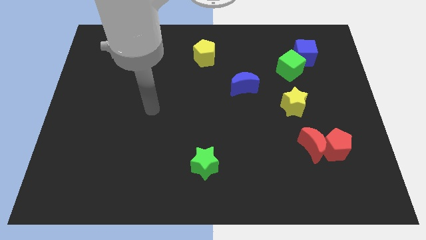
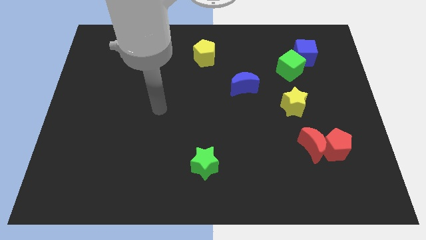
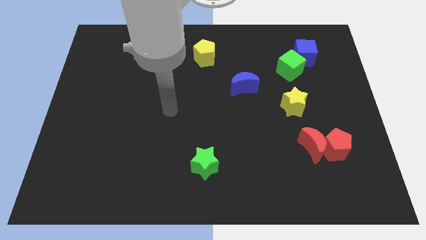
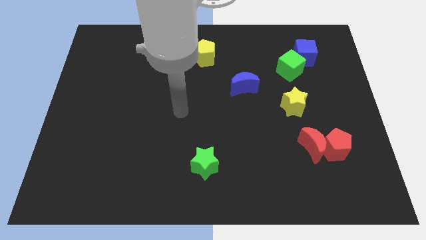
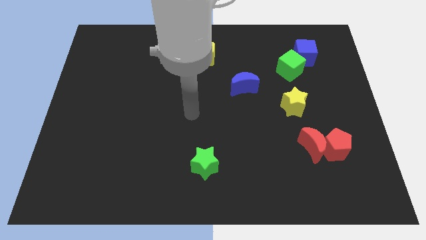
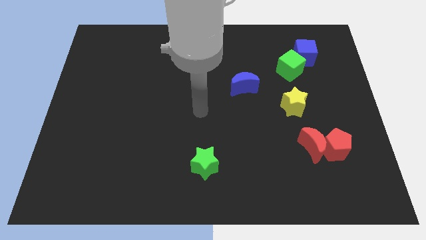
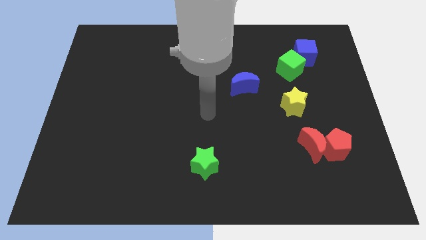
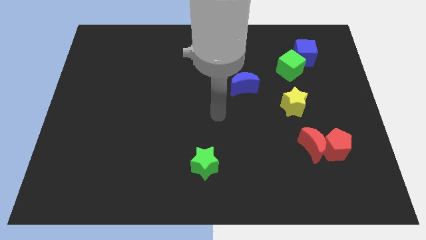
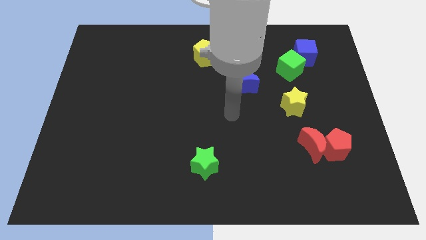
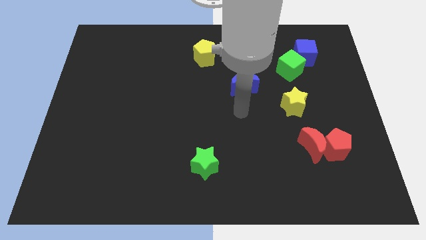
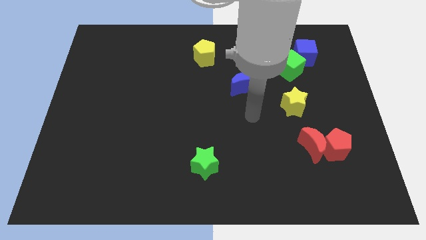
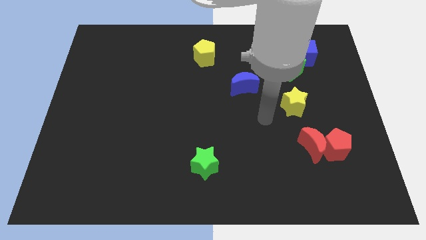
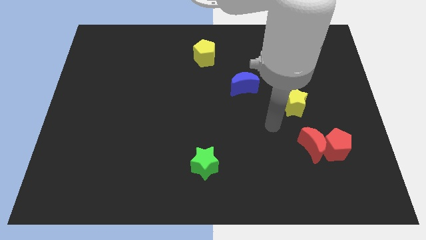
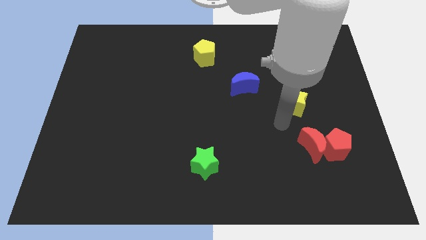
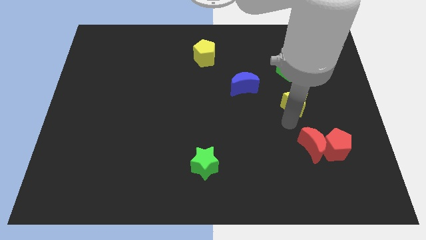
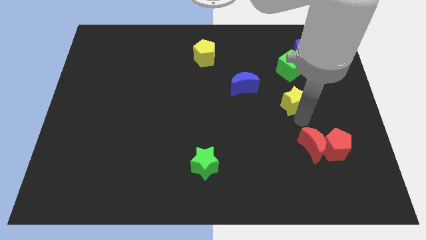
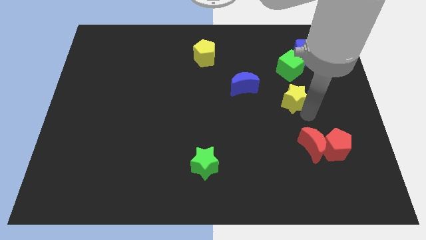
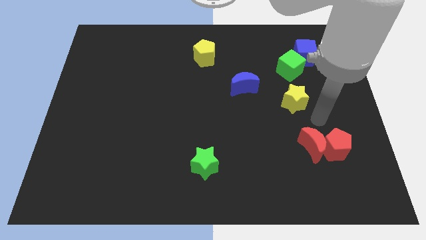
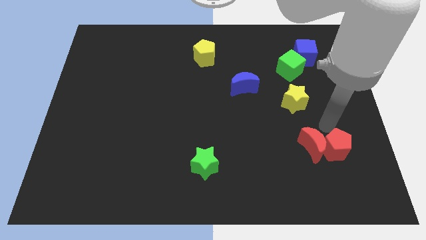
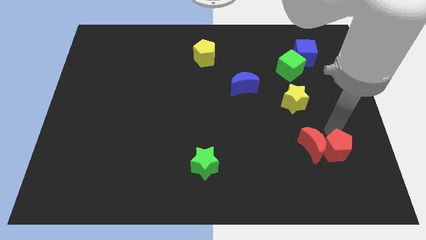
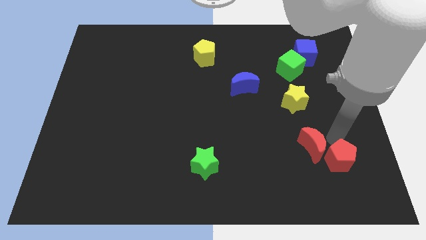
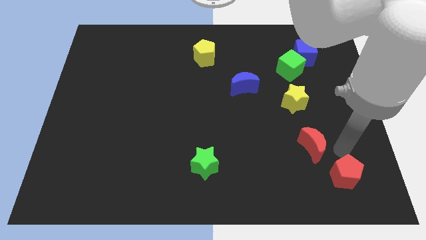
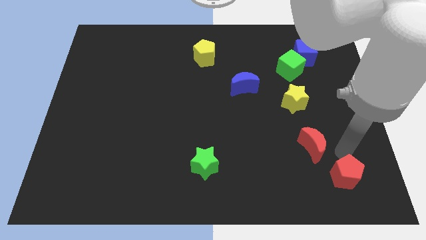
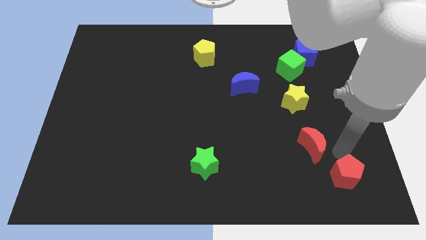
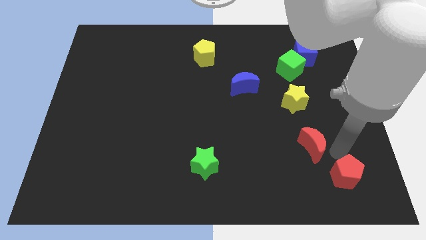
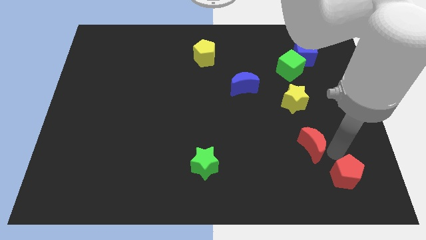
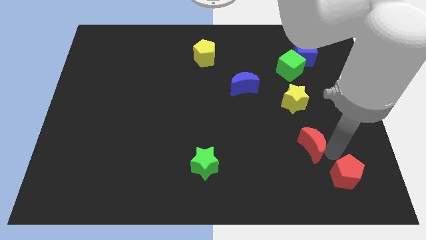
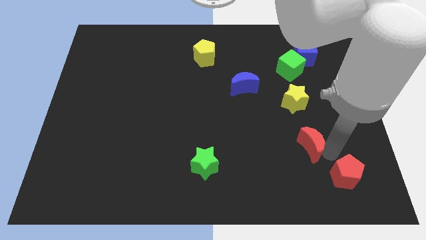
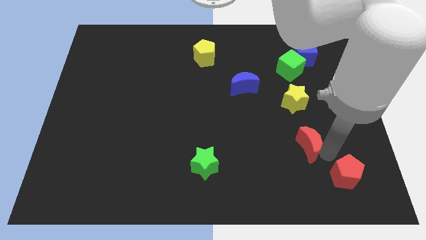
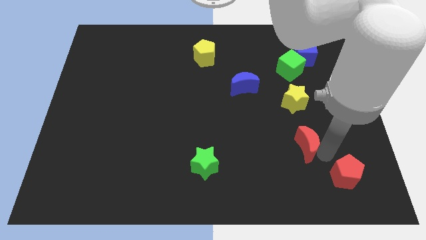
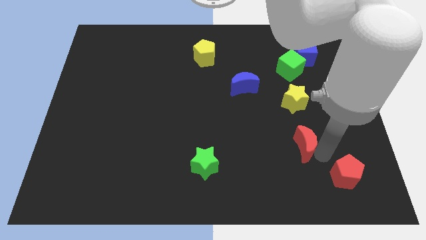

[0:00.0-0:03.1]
separate the red moon from the red pentagon

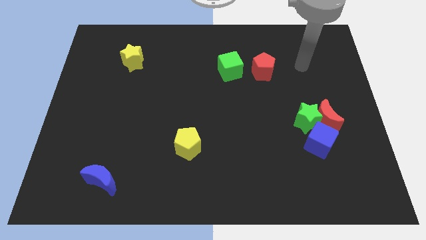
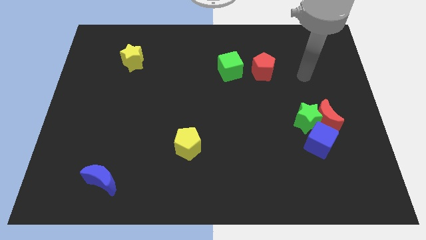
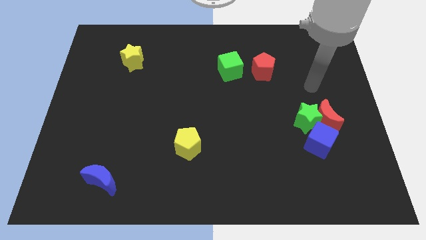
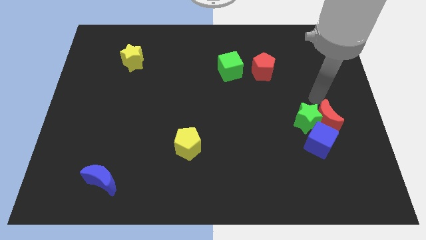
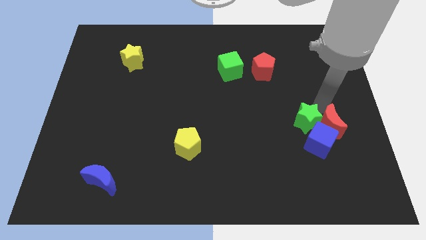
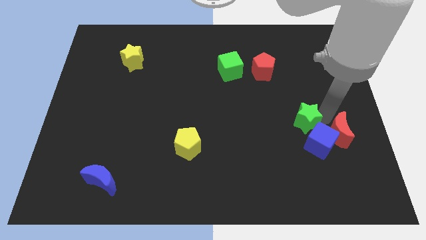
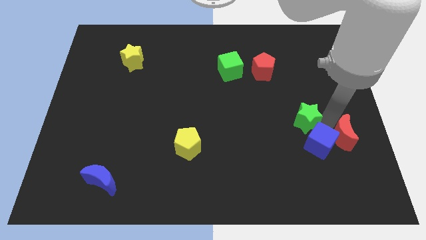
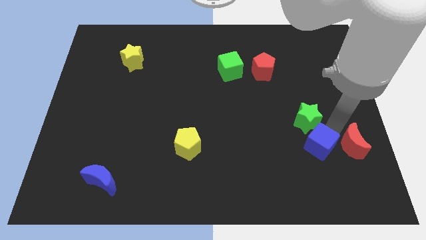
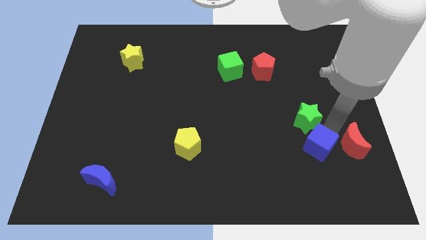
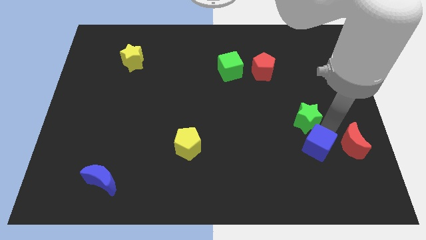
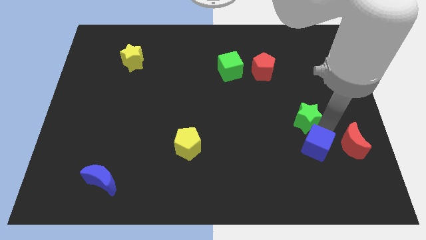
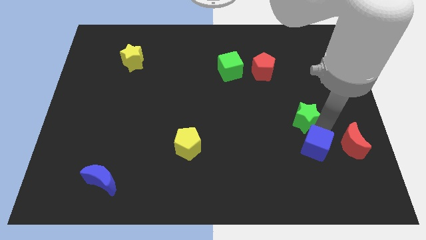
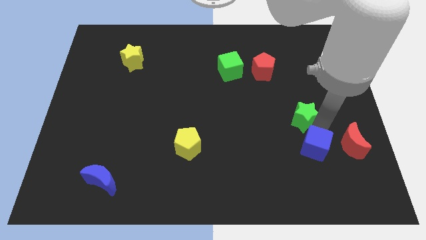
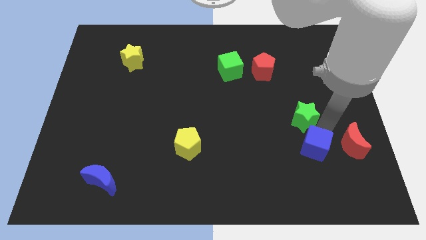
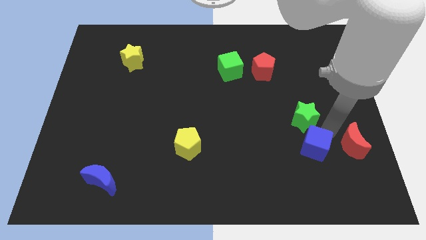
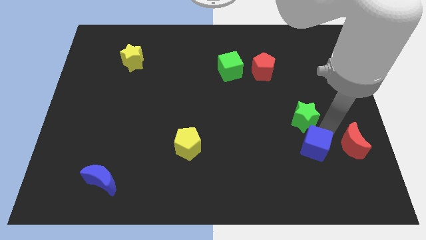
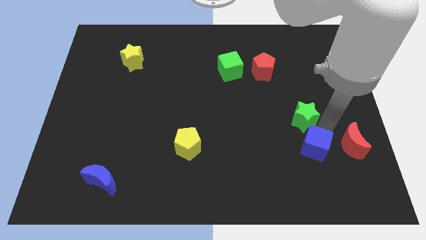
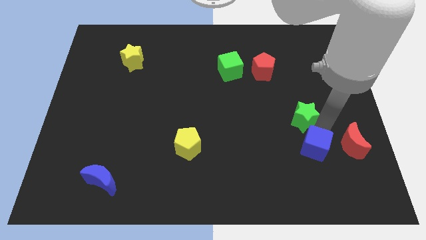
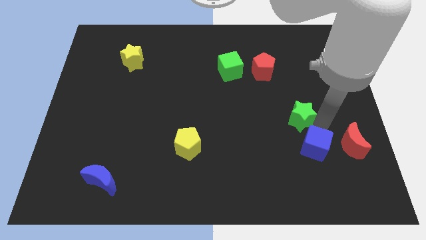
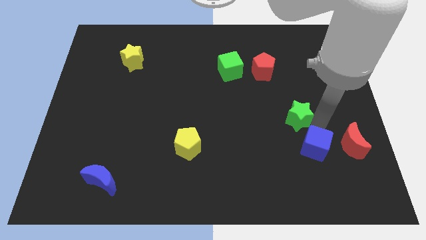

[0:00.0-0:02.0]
separate the green star from the red moon and blue cube

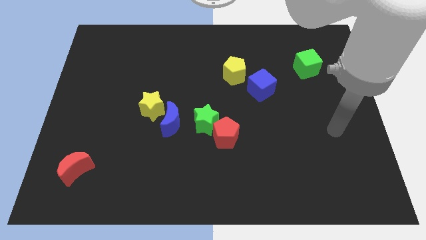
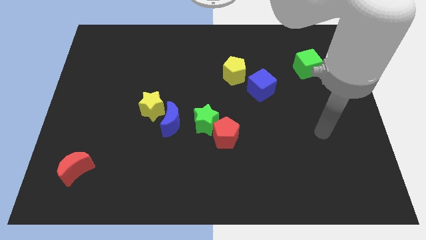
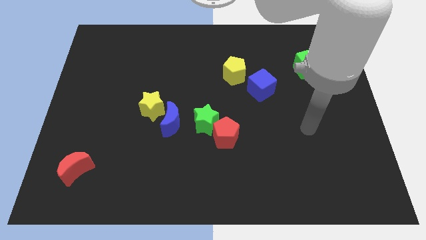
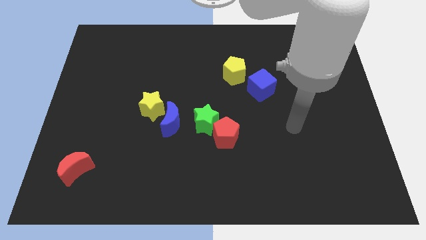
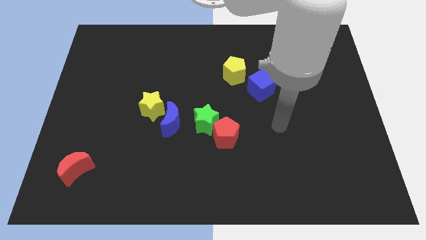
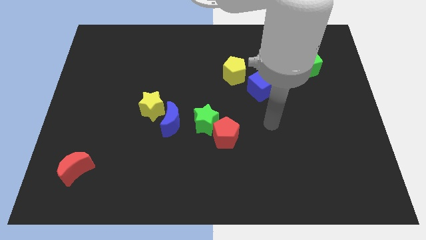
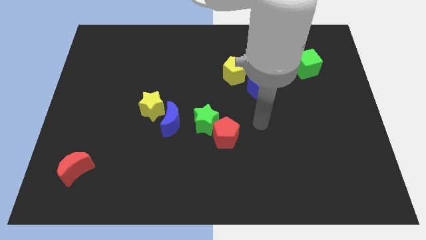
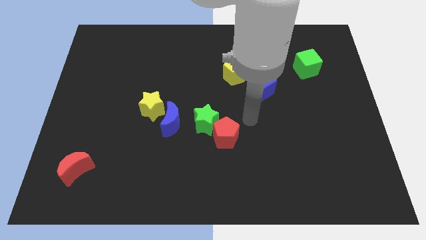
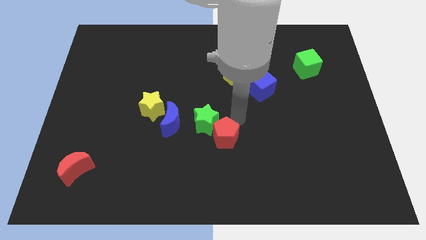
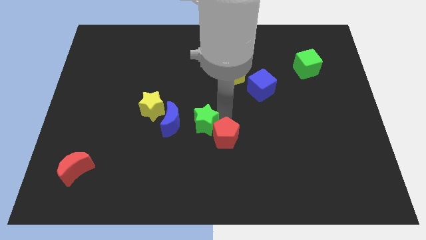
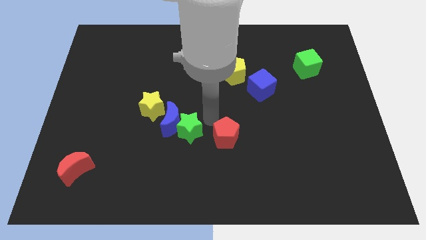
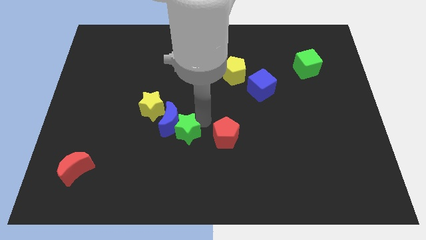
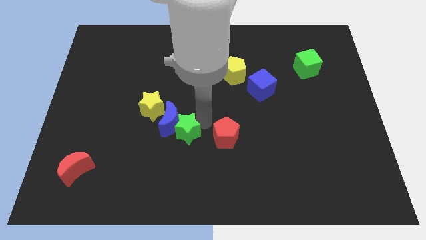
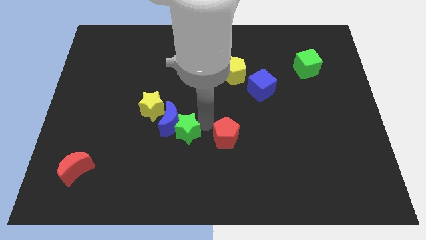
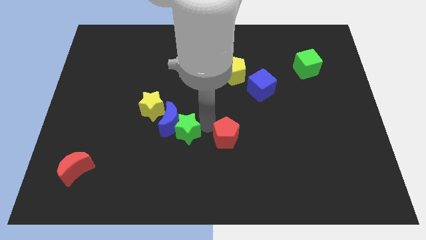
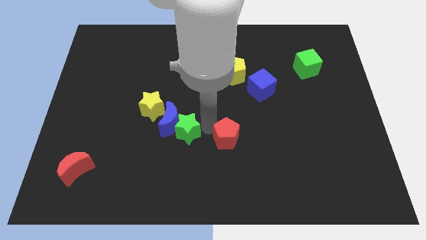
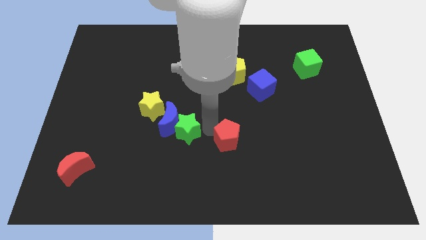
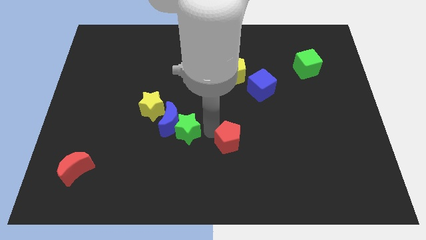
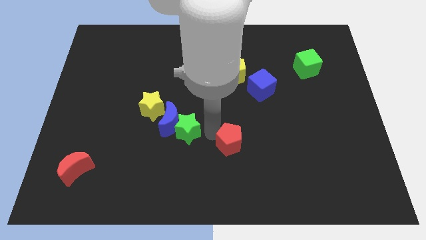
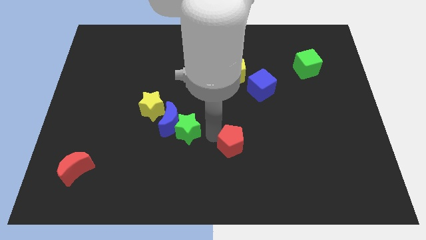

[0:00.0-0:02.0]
separate the red pentagon from the green star

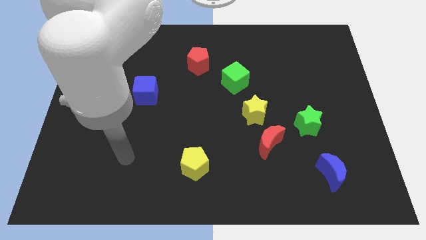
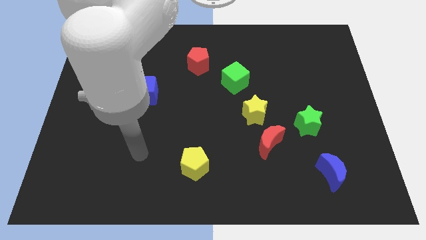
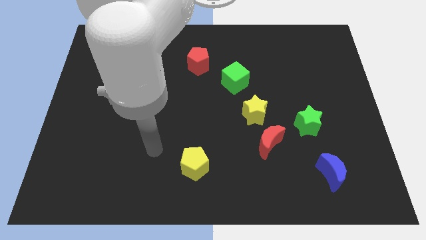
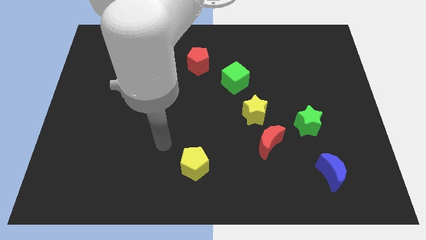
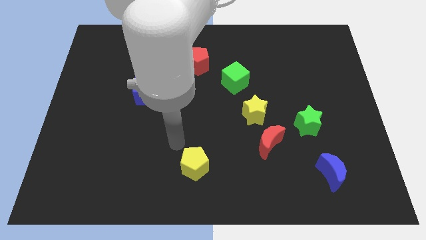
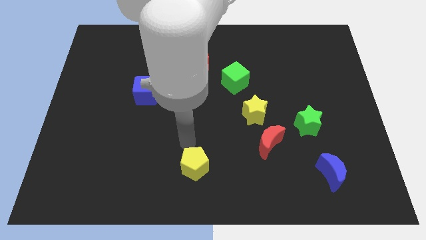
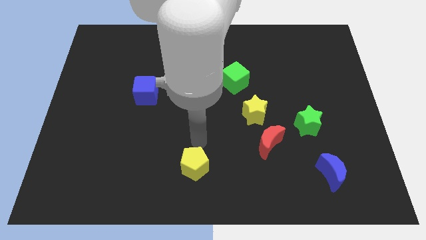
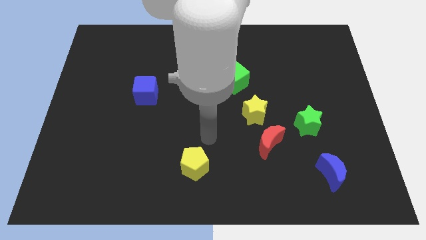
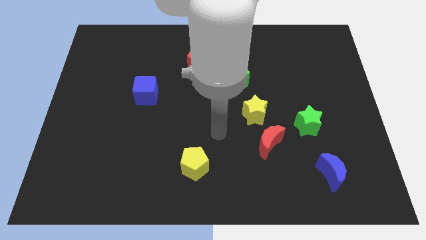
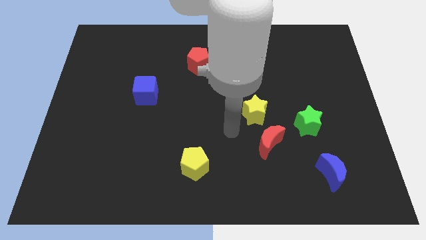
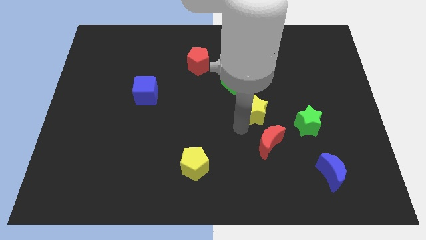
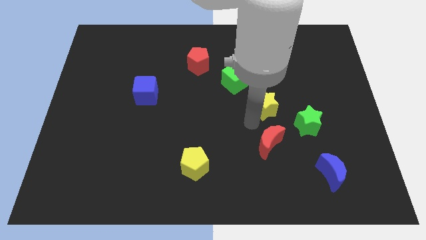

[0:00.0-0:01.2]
move the red moon away from the yellow star

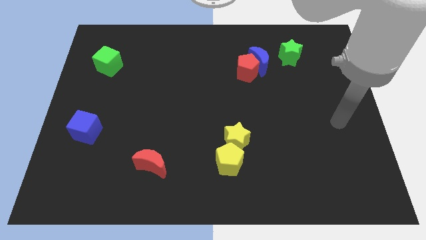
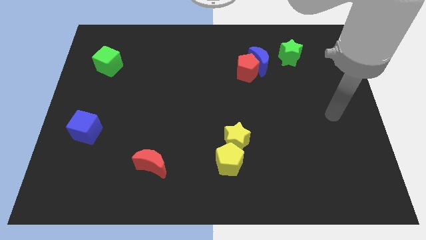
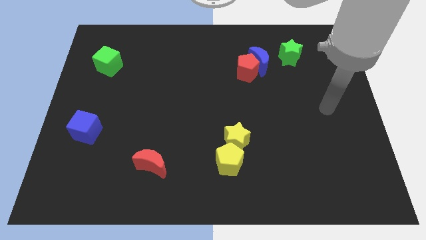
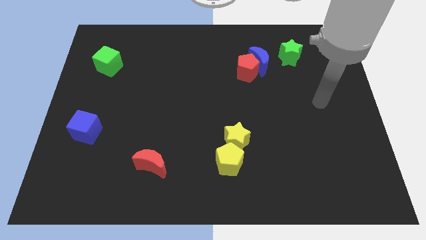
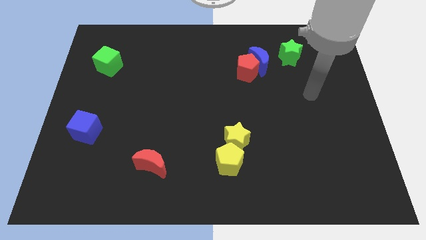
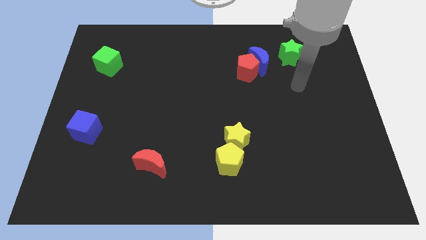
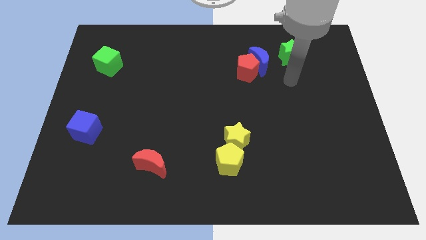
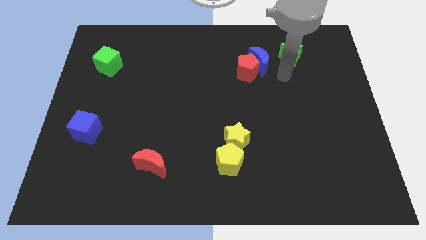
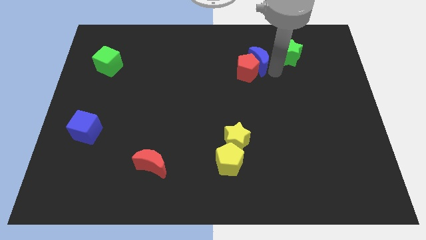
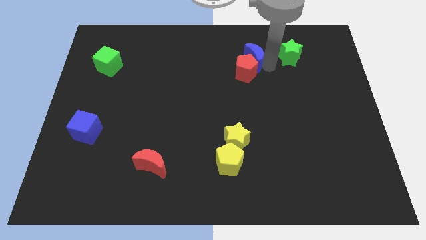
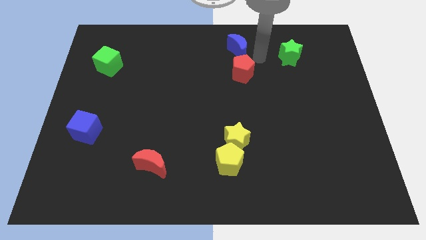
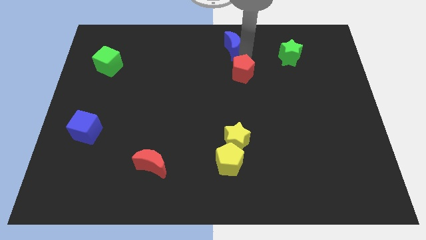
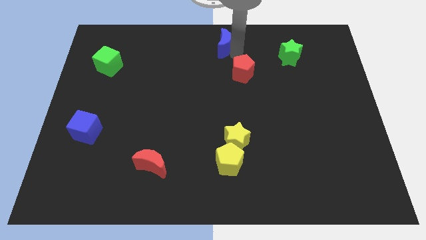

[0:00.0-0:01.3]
separate the red pentagon from the blue moon
